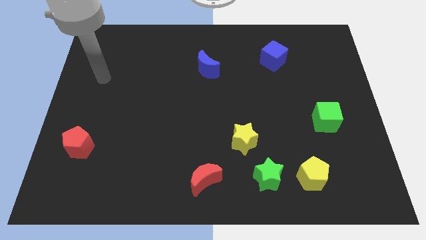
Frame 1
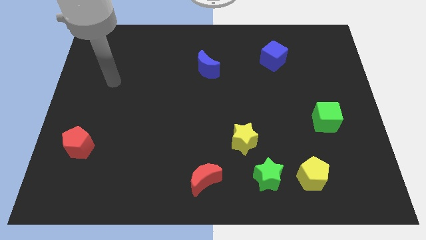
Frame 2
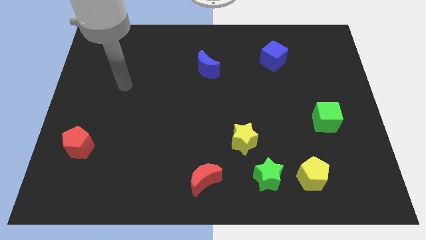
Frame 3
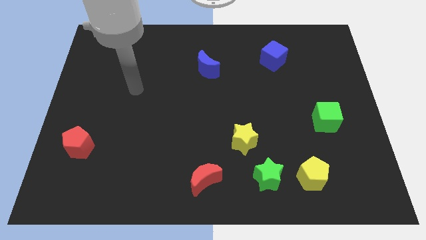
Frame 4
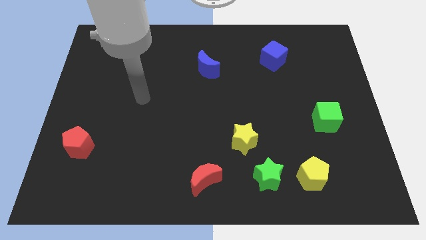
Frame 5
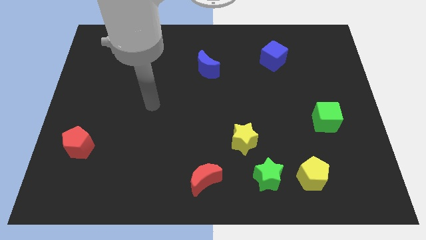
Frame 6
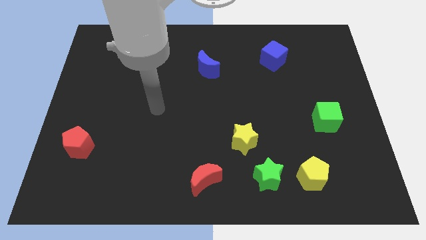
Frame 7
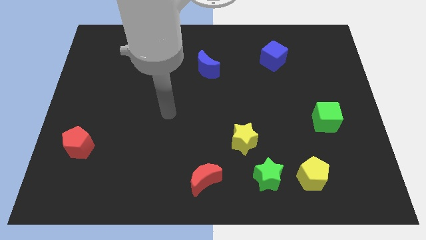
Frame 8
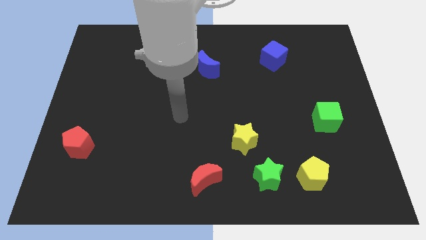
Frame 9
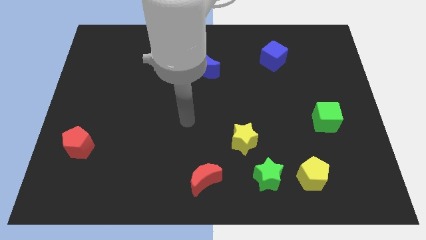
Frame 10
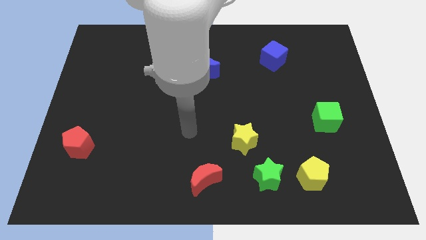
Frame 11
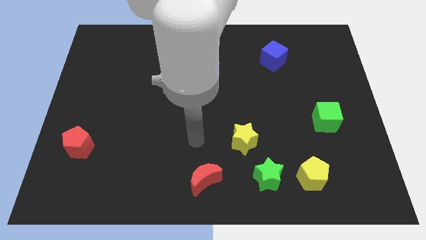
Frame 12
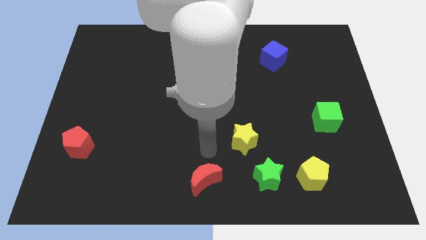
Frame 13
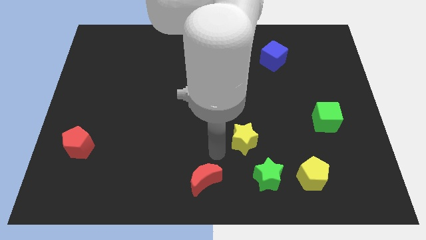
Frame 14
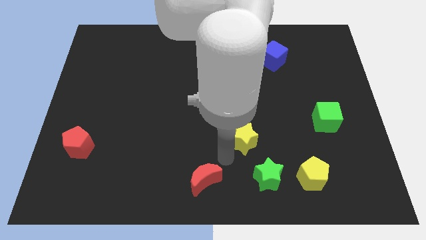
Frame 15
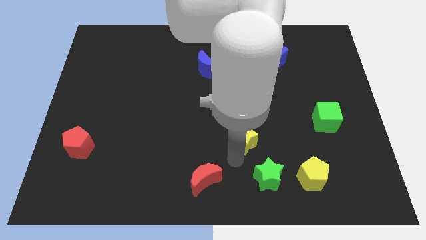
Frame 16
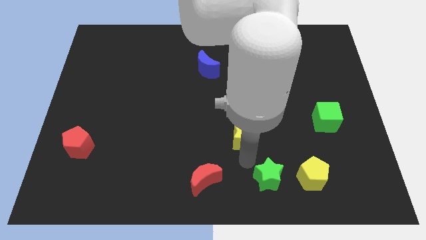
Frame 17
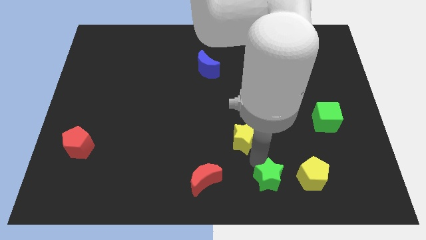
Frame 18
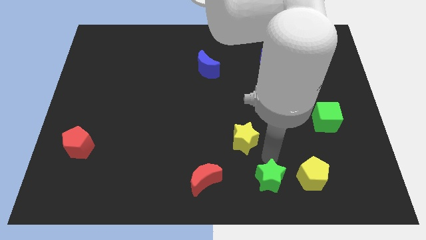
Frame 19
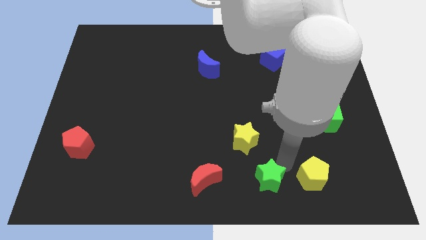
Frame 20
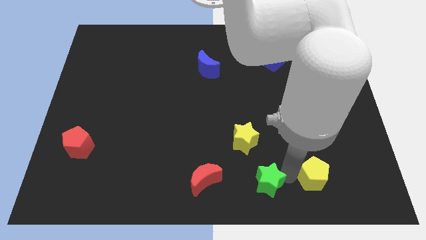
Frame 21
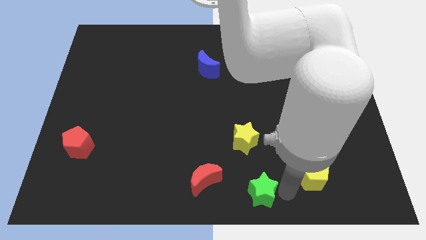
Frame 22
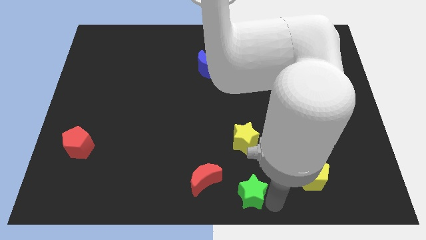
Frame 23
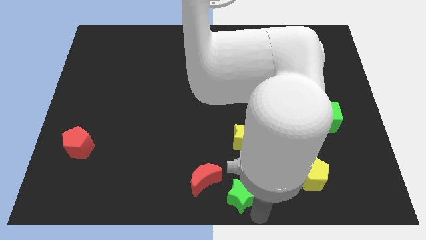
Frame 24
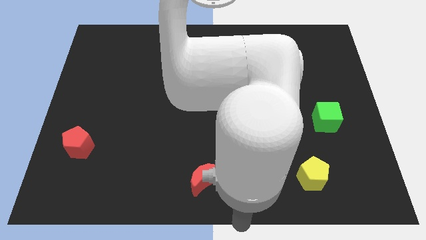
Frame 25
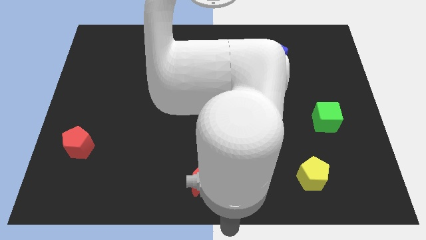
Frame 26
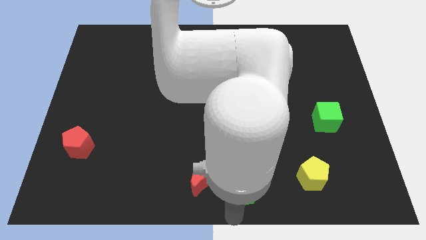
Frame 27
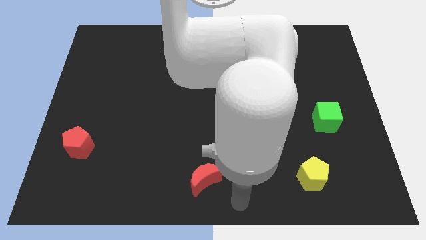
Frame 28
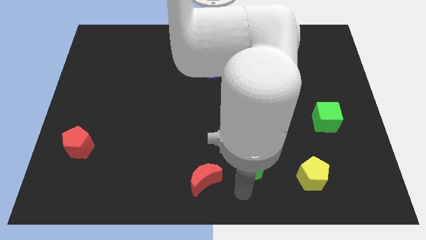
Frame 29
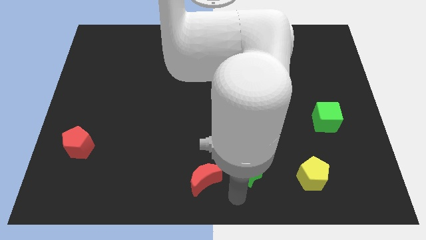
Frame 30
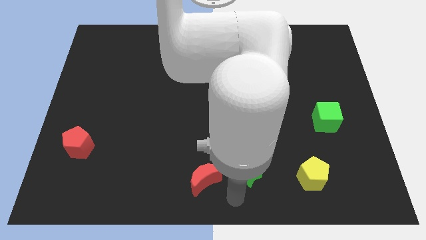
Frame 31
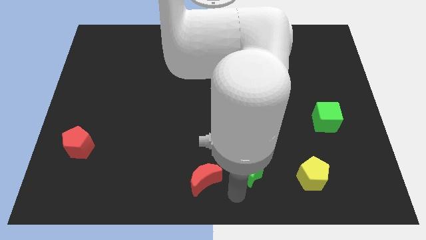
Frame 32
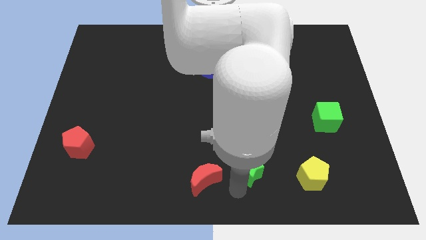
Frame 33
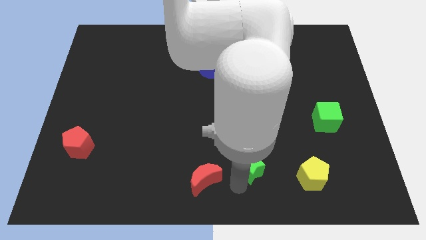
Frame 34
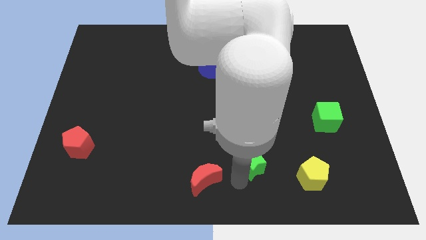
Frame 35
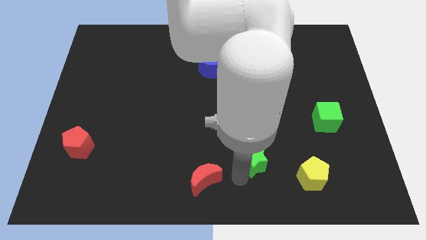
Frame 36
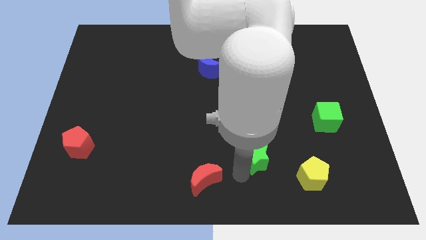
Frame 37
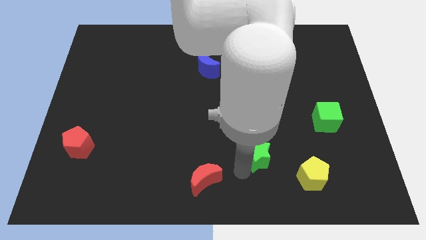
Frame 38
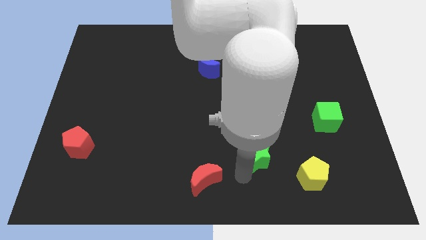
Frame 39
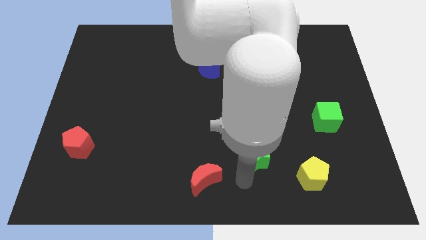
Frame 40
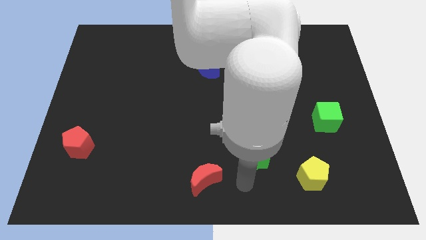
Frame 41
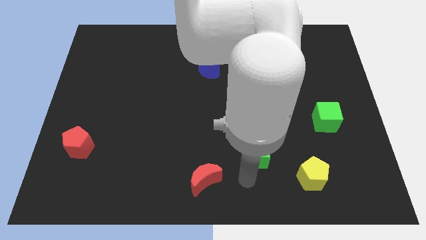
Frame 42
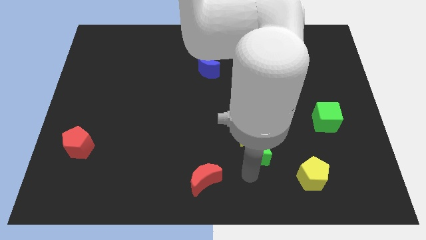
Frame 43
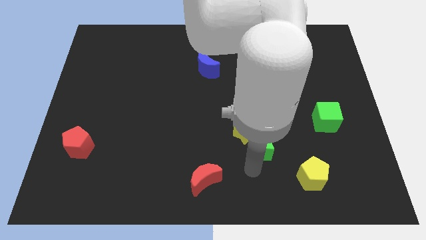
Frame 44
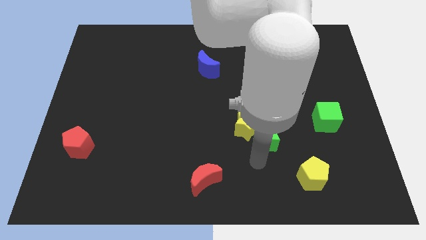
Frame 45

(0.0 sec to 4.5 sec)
push the green star upwards a little

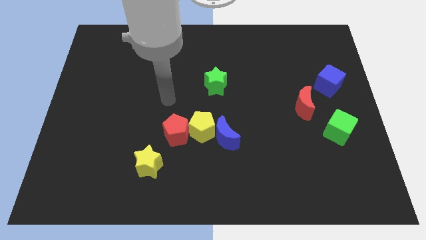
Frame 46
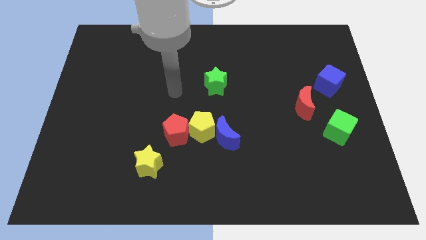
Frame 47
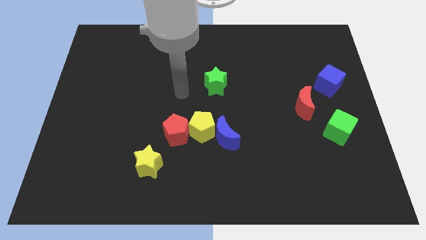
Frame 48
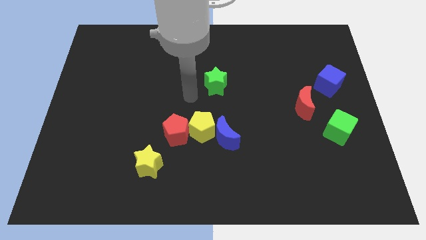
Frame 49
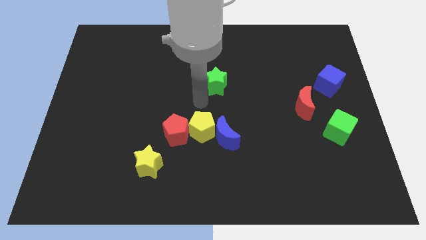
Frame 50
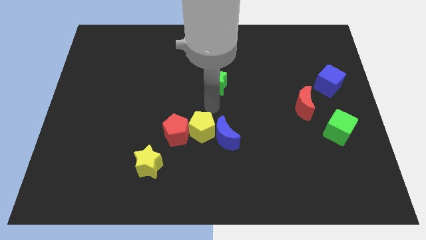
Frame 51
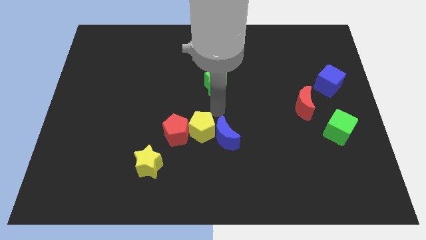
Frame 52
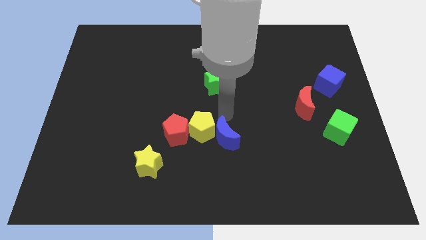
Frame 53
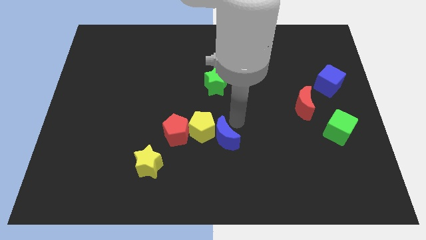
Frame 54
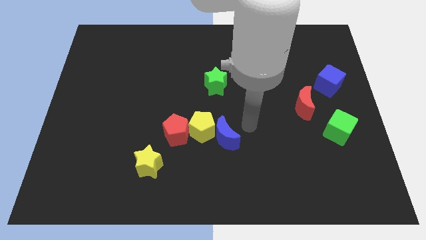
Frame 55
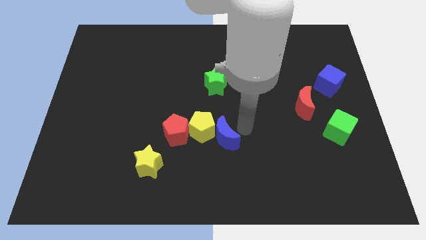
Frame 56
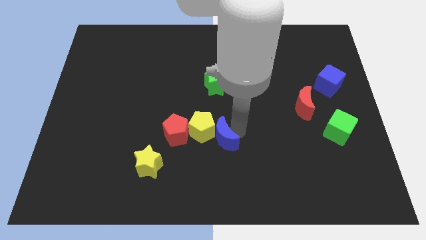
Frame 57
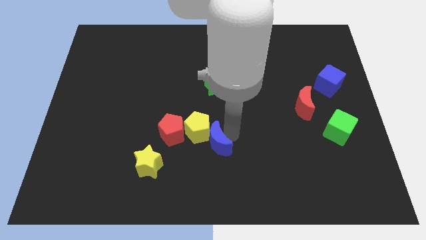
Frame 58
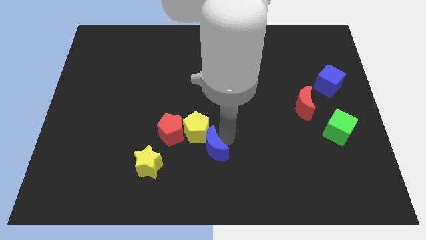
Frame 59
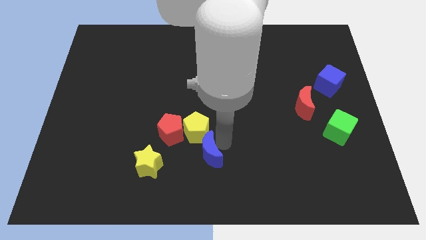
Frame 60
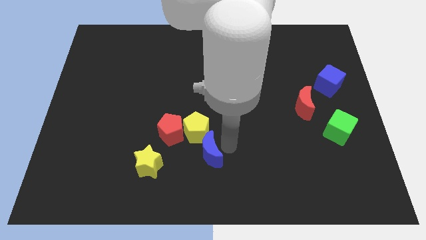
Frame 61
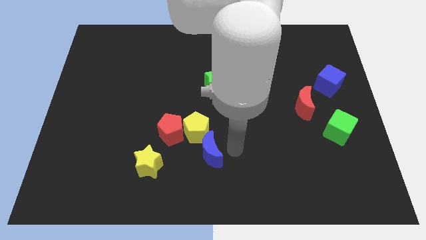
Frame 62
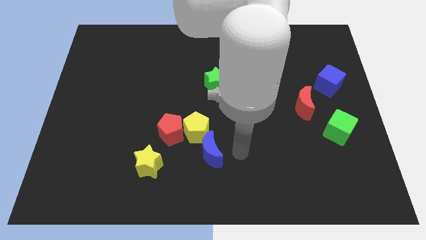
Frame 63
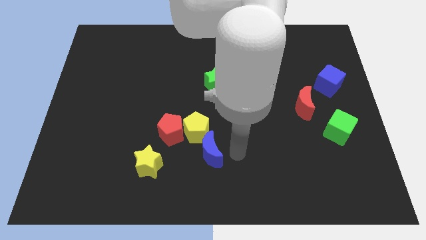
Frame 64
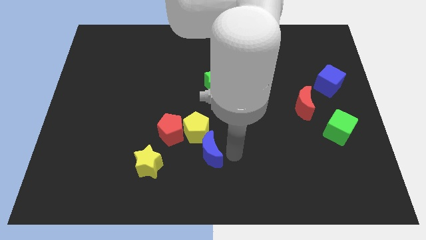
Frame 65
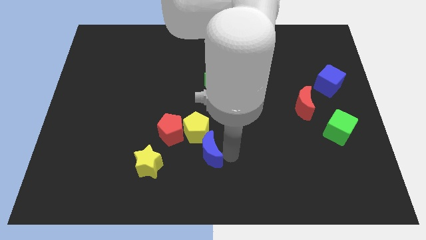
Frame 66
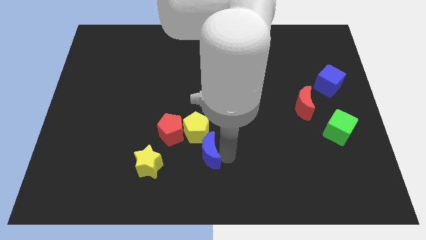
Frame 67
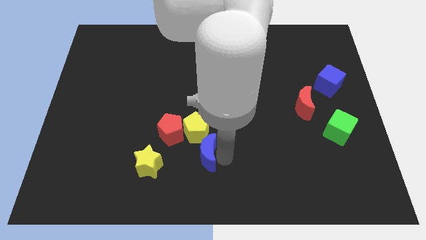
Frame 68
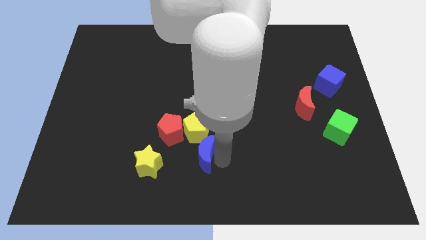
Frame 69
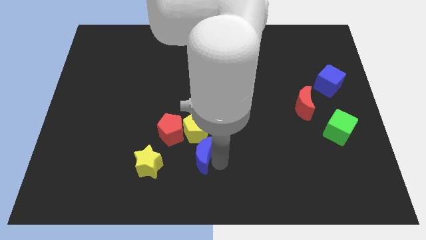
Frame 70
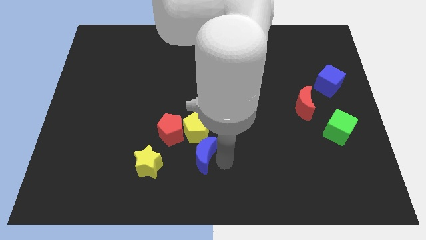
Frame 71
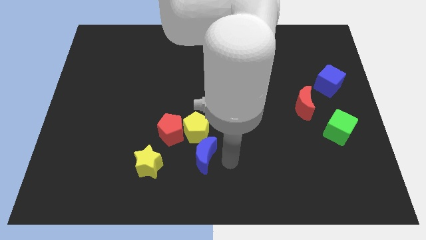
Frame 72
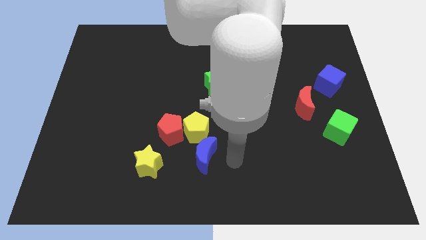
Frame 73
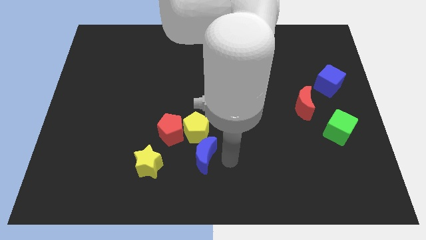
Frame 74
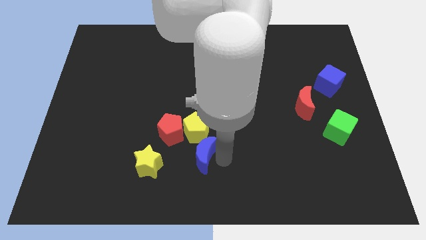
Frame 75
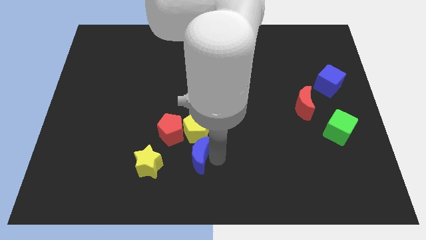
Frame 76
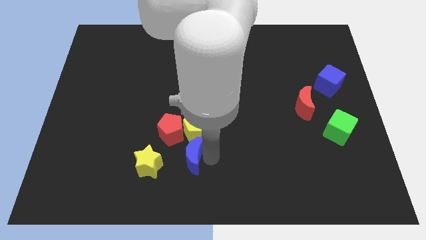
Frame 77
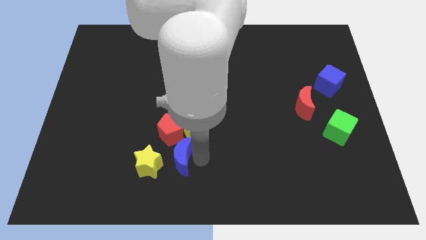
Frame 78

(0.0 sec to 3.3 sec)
slightly slide the blue moon left
